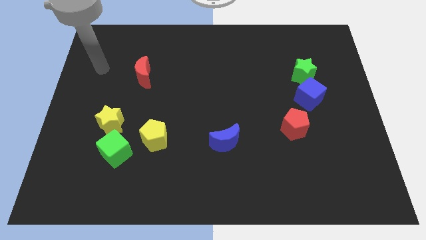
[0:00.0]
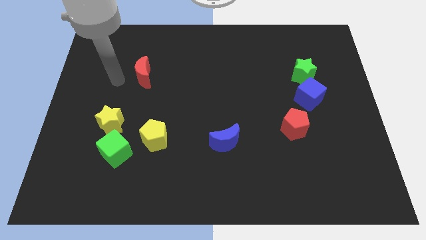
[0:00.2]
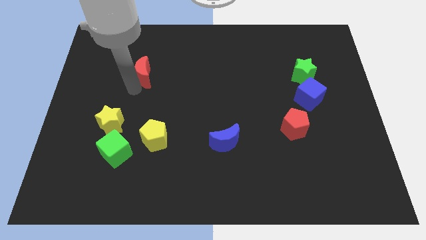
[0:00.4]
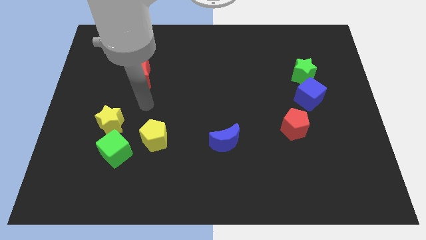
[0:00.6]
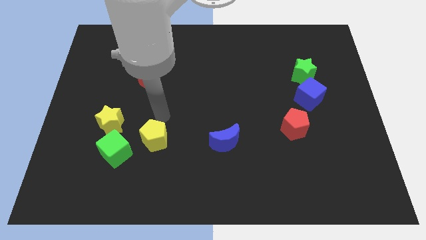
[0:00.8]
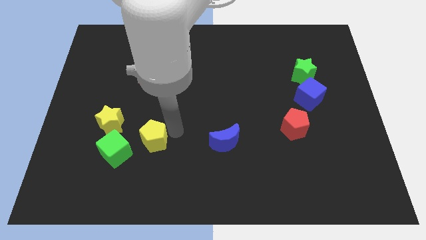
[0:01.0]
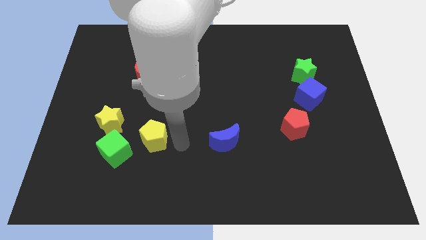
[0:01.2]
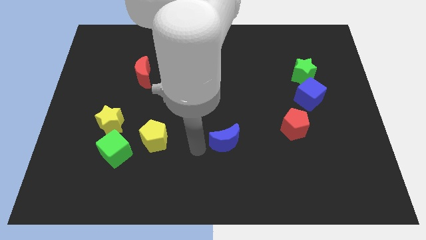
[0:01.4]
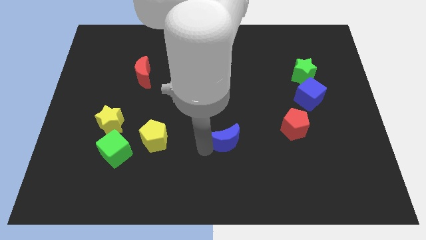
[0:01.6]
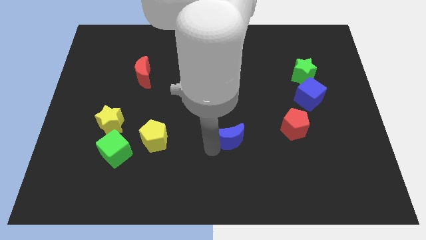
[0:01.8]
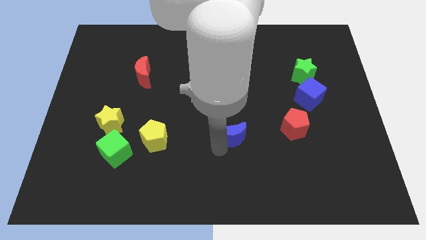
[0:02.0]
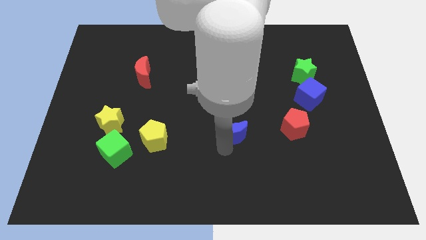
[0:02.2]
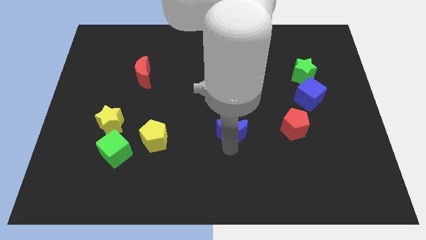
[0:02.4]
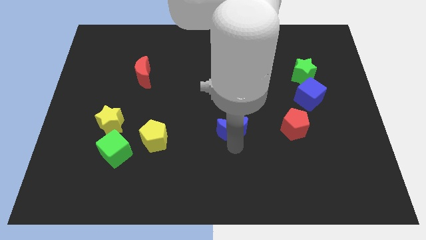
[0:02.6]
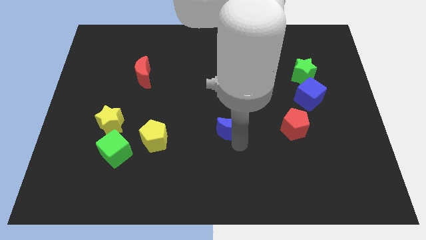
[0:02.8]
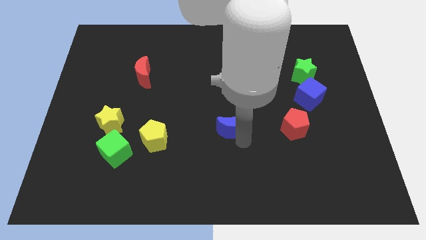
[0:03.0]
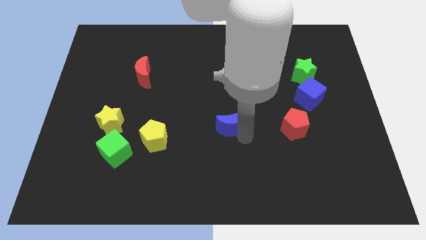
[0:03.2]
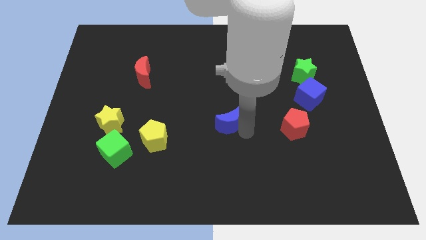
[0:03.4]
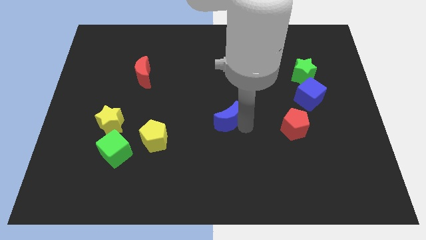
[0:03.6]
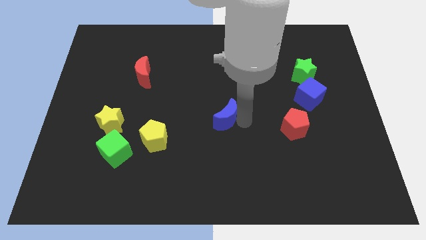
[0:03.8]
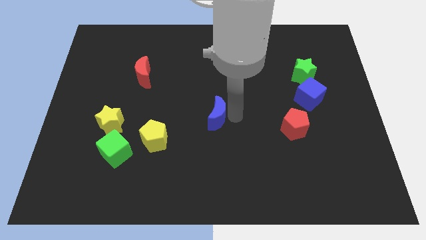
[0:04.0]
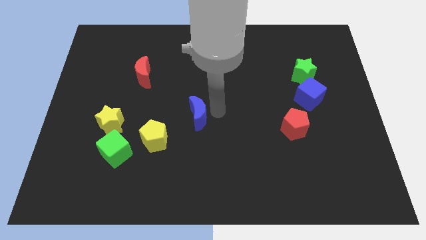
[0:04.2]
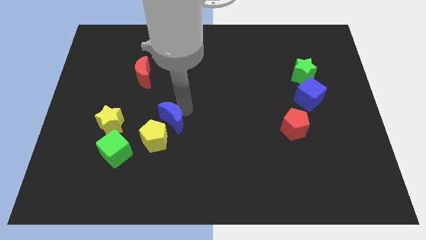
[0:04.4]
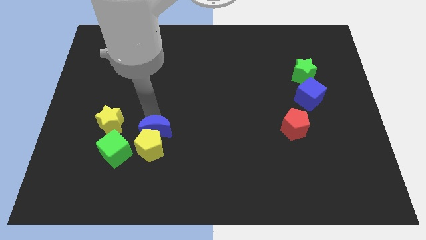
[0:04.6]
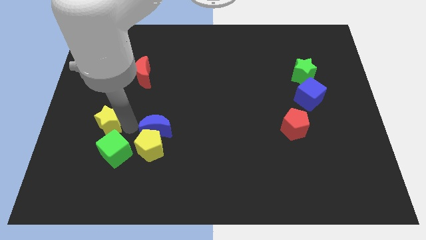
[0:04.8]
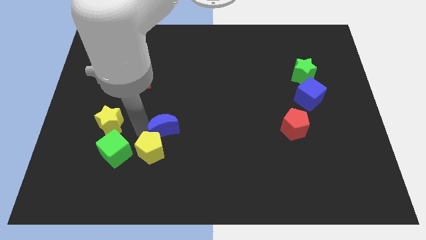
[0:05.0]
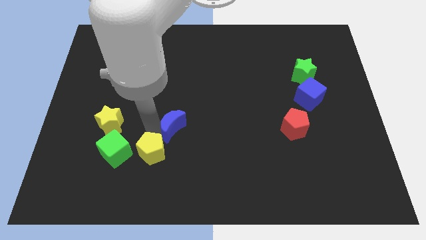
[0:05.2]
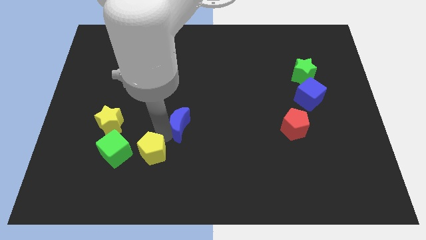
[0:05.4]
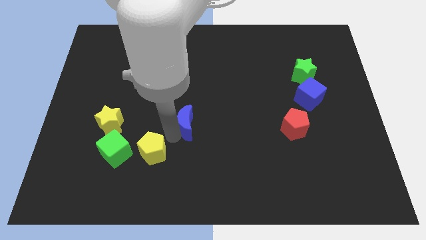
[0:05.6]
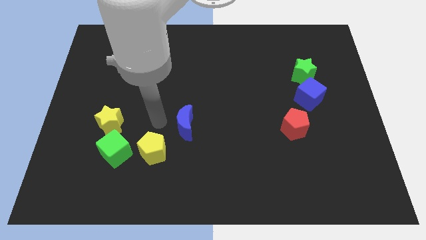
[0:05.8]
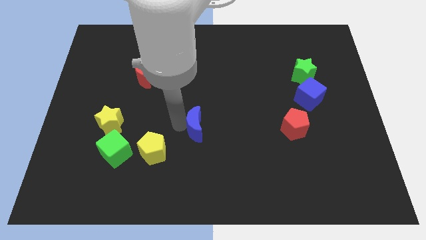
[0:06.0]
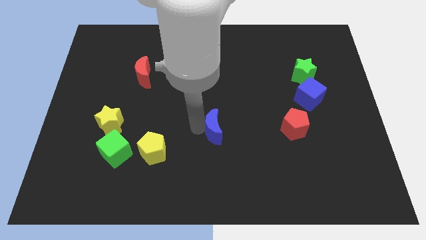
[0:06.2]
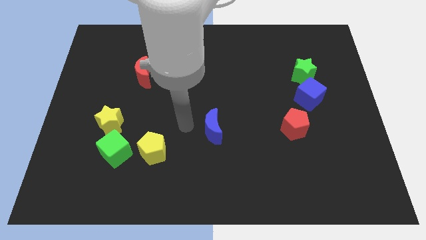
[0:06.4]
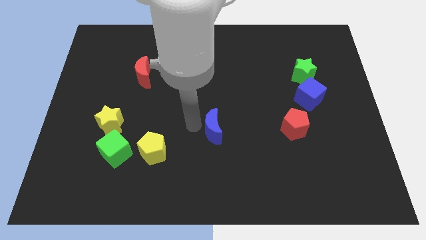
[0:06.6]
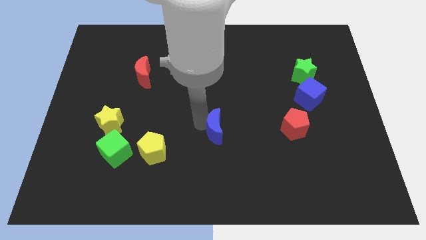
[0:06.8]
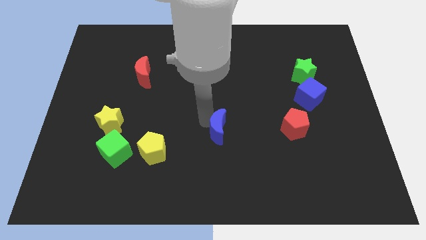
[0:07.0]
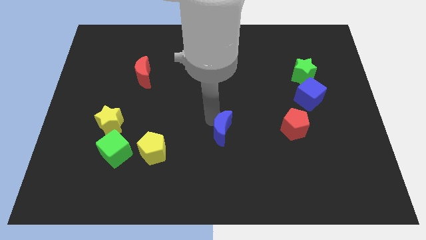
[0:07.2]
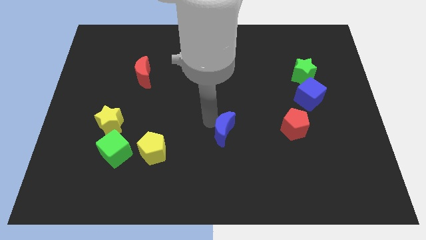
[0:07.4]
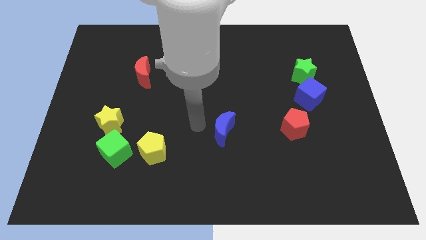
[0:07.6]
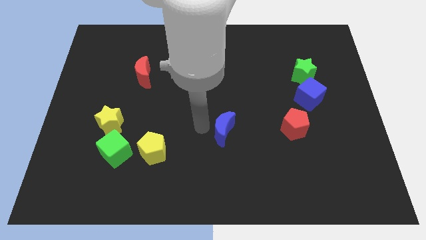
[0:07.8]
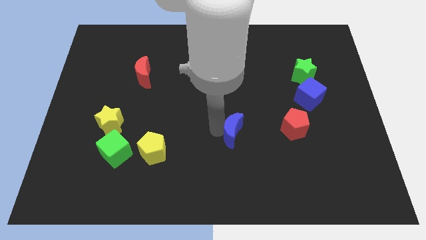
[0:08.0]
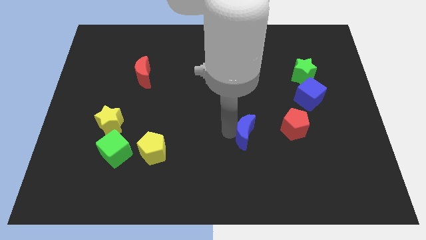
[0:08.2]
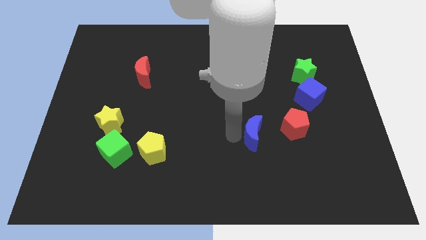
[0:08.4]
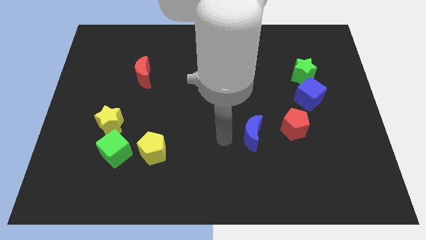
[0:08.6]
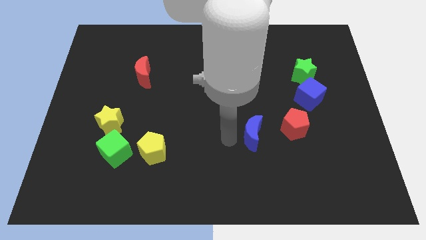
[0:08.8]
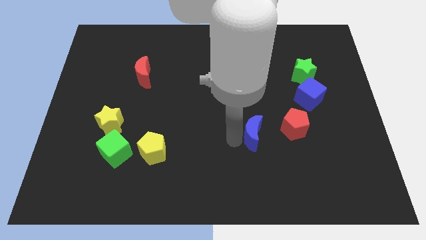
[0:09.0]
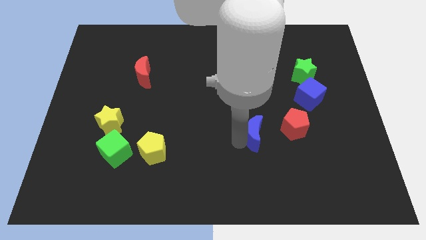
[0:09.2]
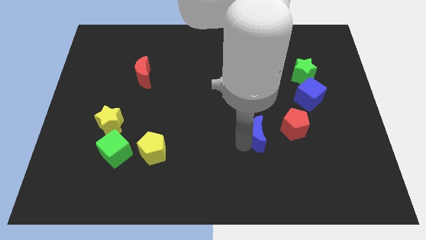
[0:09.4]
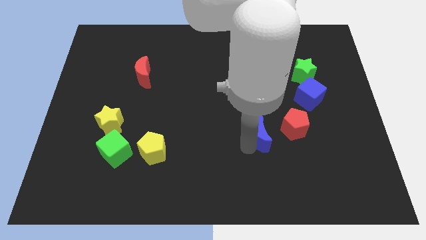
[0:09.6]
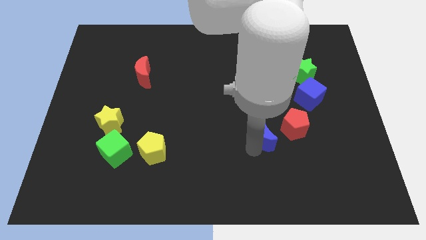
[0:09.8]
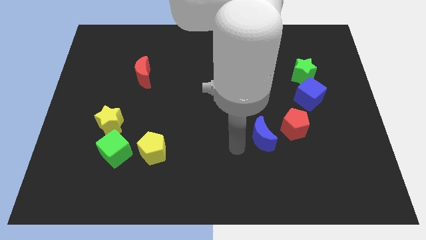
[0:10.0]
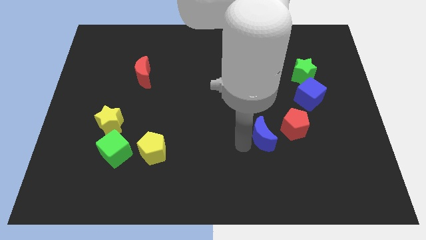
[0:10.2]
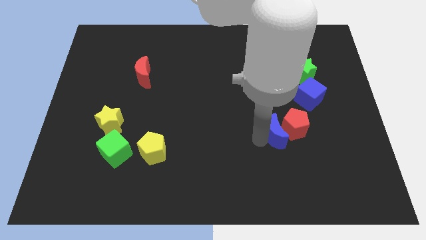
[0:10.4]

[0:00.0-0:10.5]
move the blue moon towards the red pentagon

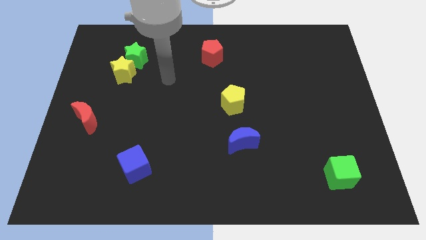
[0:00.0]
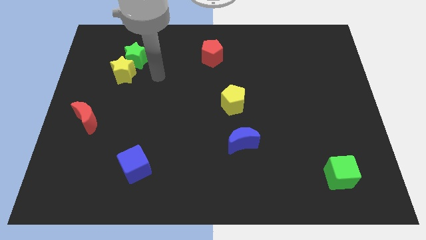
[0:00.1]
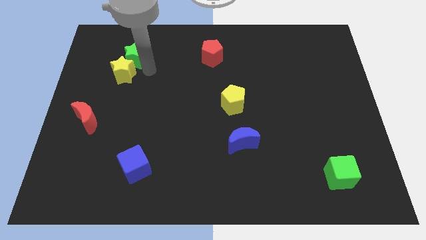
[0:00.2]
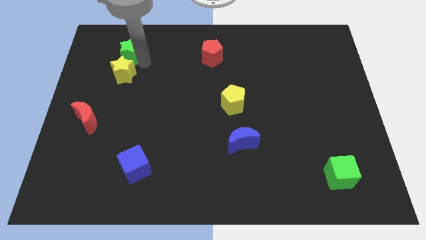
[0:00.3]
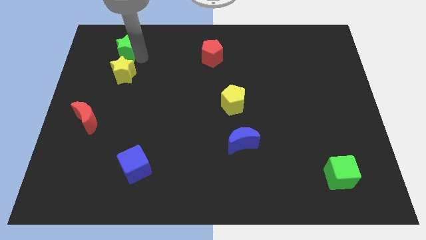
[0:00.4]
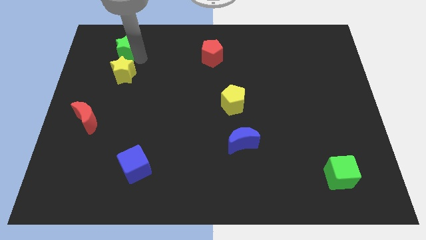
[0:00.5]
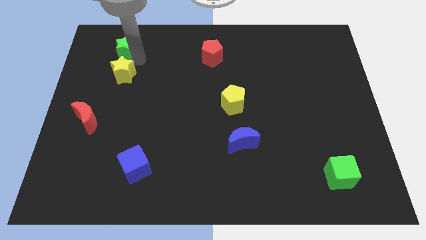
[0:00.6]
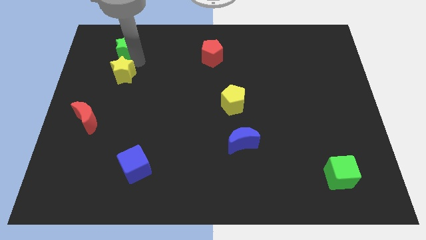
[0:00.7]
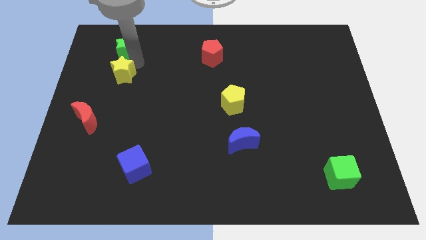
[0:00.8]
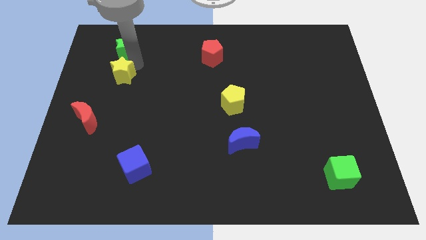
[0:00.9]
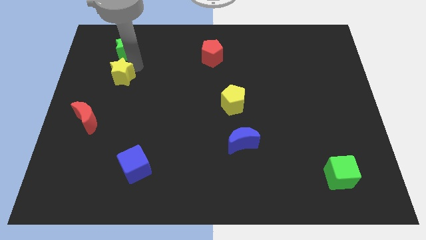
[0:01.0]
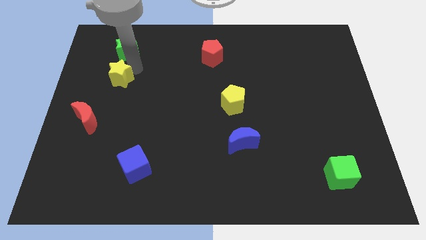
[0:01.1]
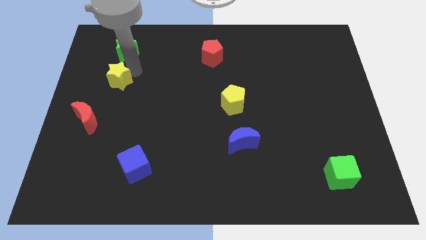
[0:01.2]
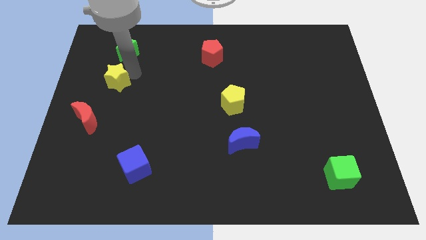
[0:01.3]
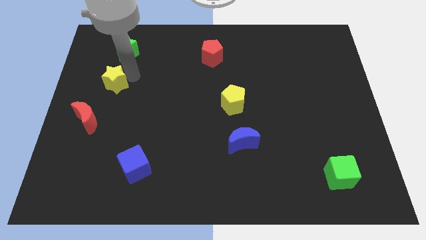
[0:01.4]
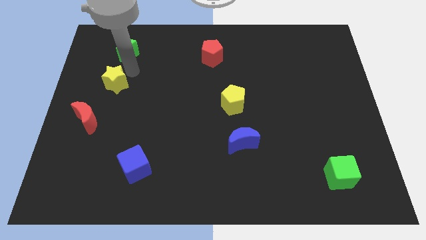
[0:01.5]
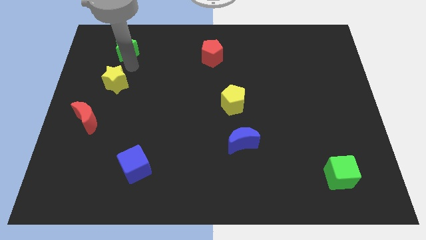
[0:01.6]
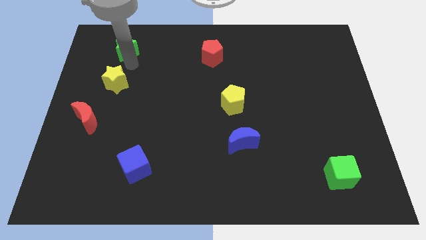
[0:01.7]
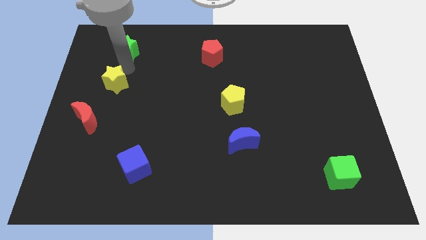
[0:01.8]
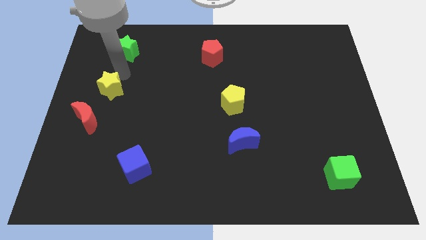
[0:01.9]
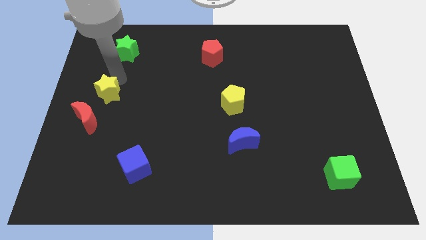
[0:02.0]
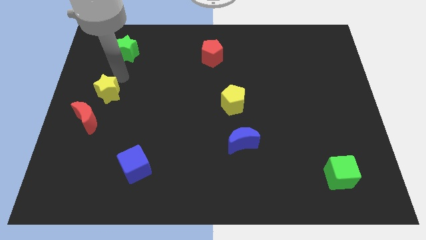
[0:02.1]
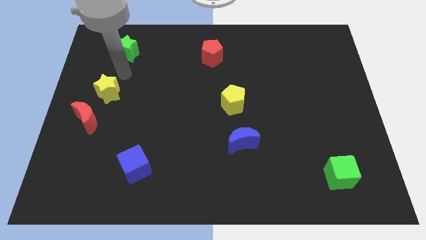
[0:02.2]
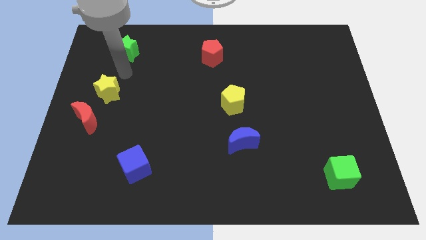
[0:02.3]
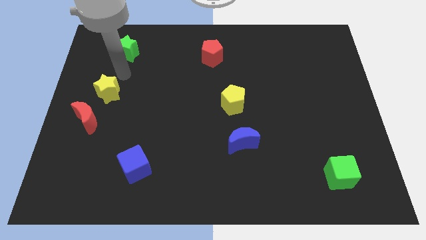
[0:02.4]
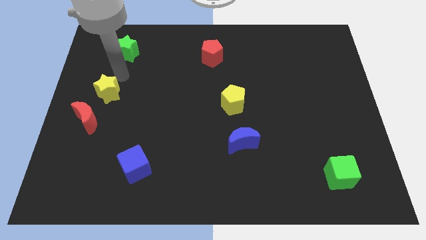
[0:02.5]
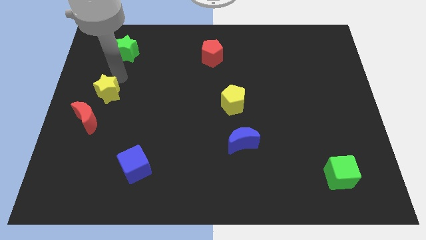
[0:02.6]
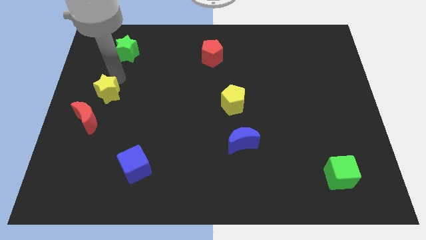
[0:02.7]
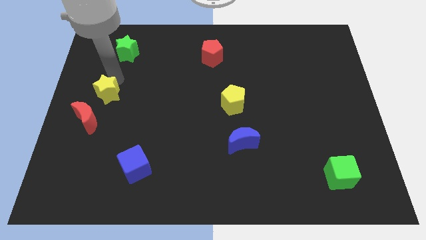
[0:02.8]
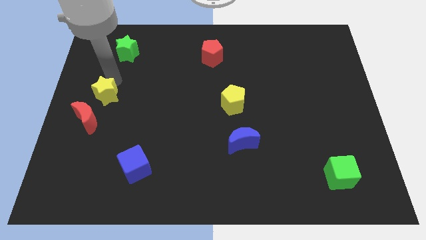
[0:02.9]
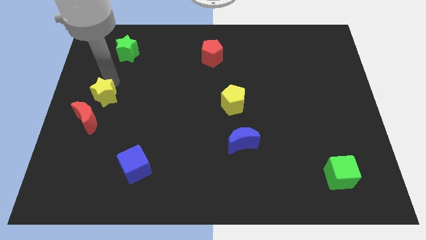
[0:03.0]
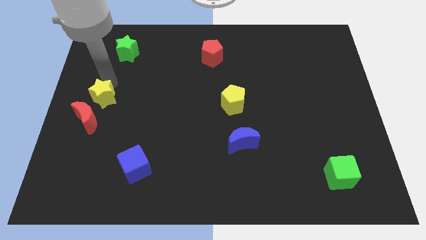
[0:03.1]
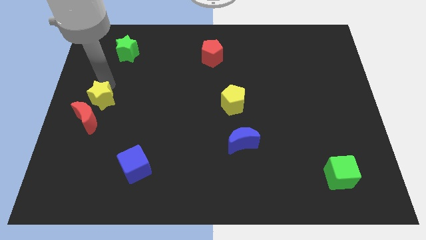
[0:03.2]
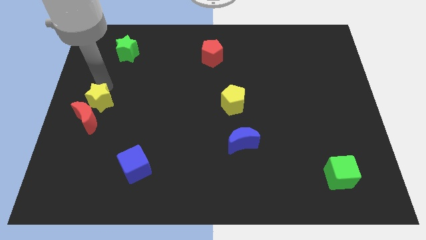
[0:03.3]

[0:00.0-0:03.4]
put the yellow star to the red moon
